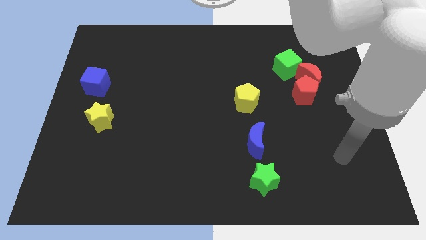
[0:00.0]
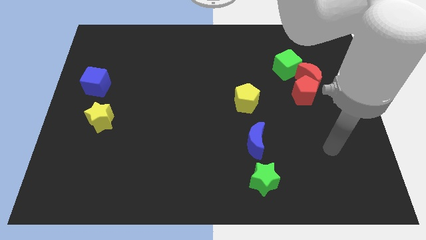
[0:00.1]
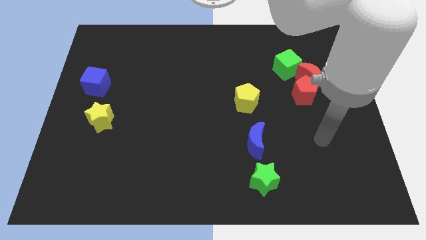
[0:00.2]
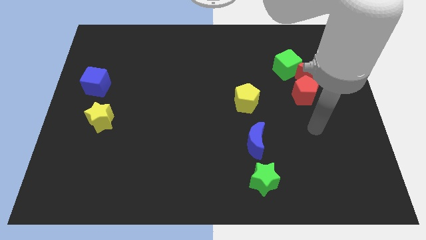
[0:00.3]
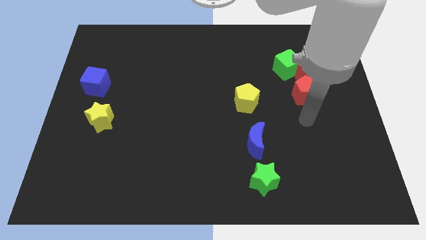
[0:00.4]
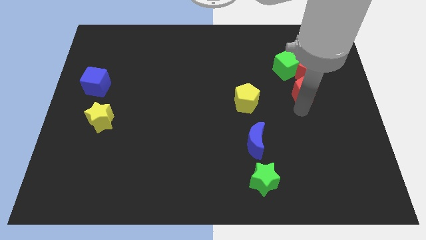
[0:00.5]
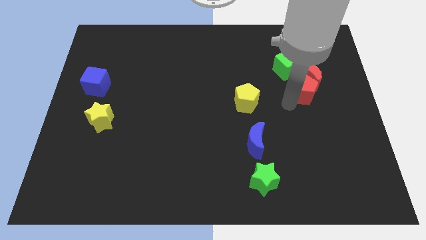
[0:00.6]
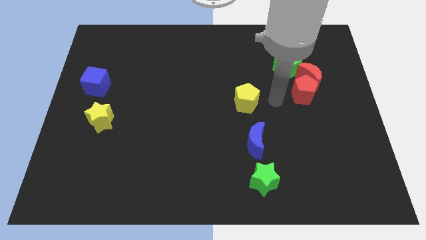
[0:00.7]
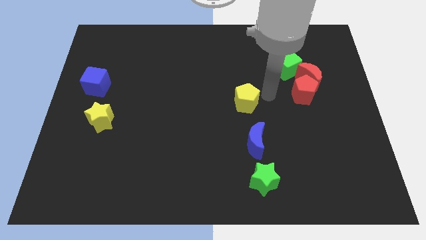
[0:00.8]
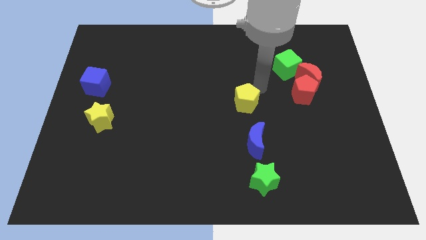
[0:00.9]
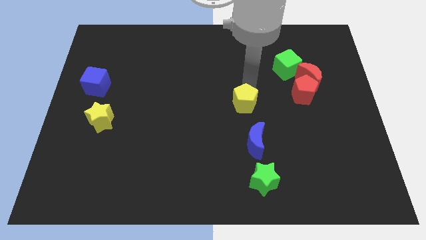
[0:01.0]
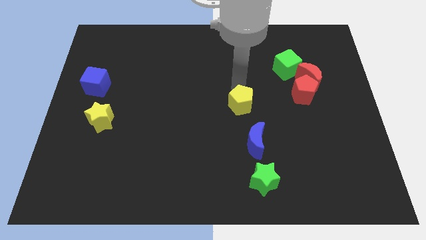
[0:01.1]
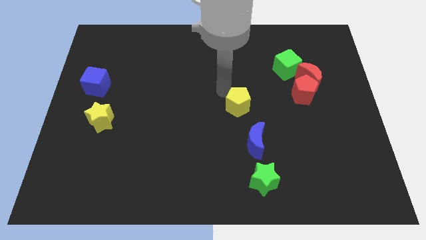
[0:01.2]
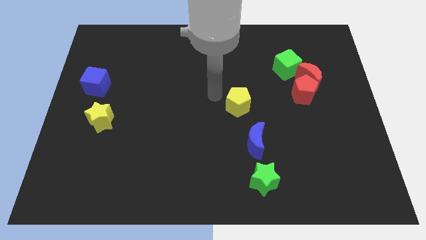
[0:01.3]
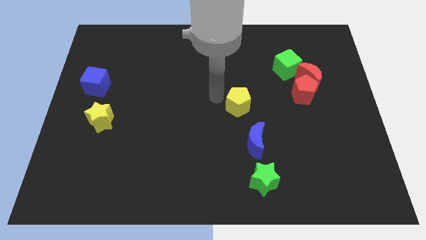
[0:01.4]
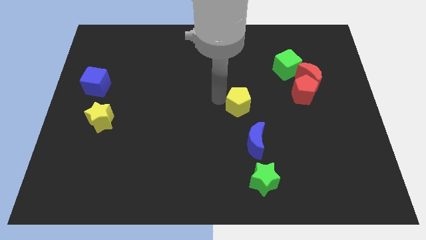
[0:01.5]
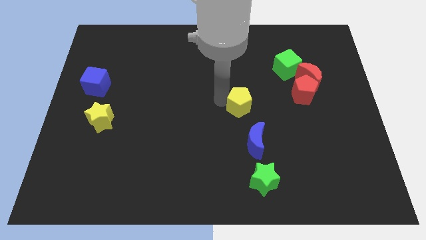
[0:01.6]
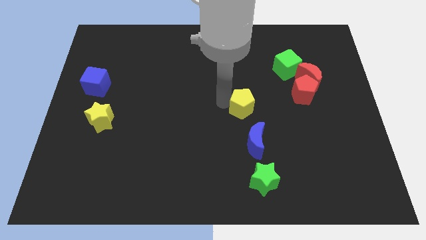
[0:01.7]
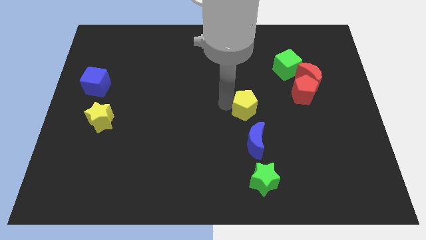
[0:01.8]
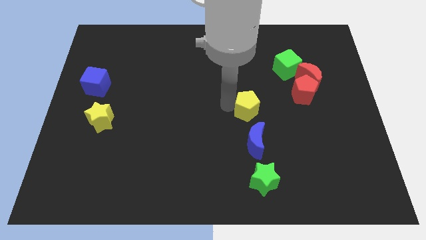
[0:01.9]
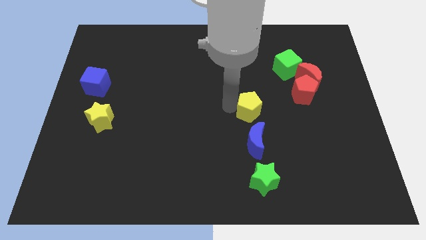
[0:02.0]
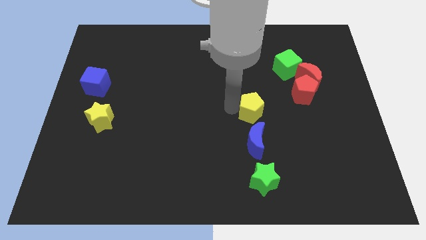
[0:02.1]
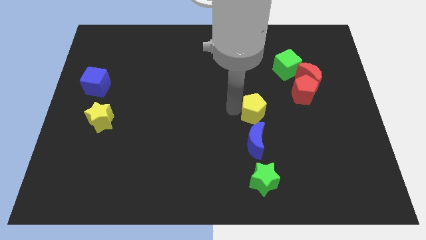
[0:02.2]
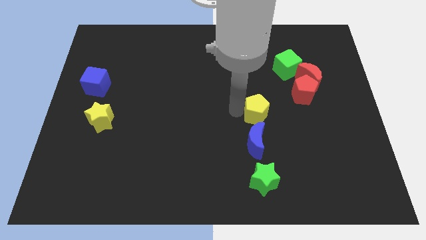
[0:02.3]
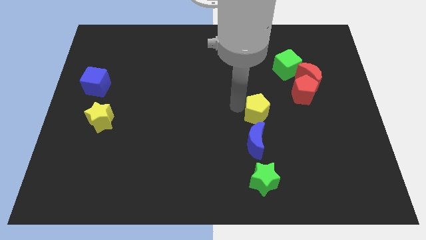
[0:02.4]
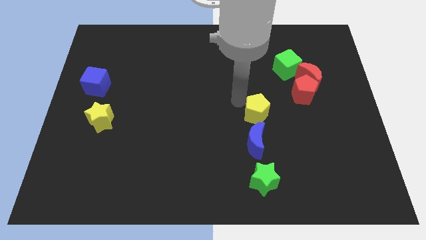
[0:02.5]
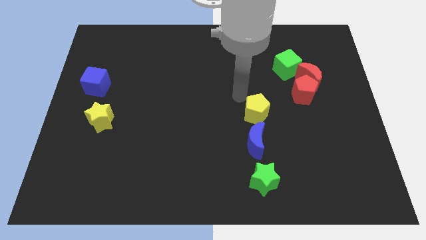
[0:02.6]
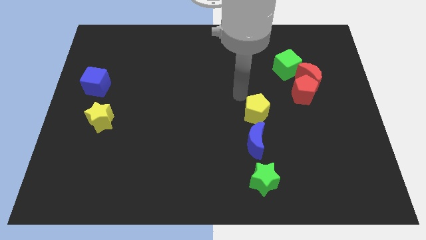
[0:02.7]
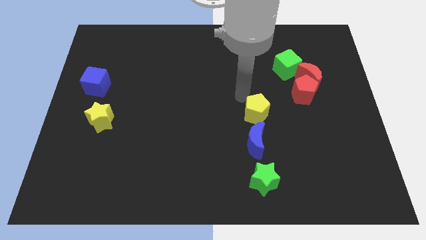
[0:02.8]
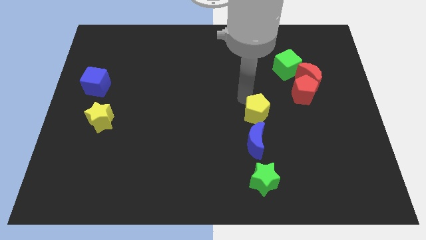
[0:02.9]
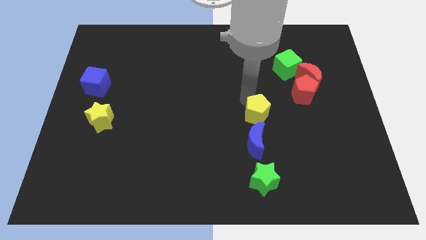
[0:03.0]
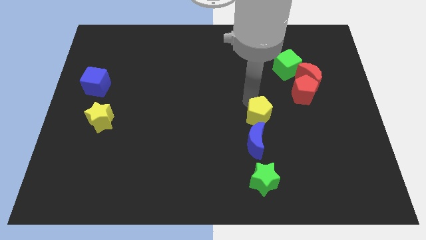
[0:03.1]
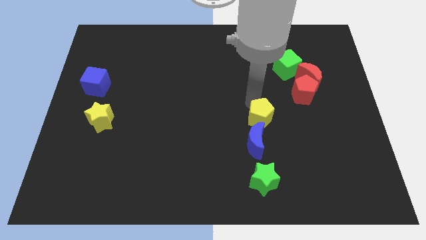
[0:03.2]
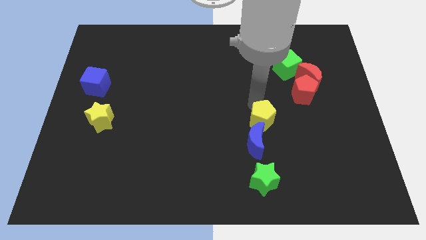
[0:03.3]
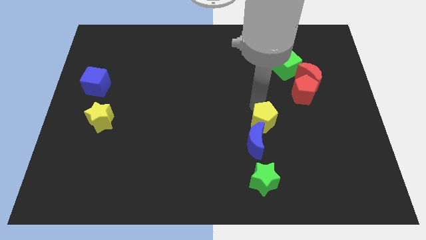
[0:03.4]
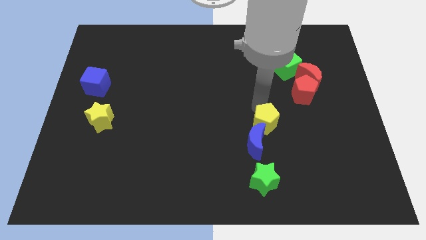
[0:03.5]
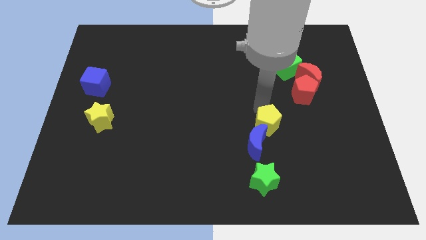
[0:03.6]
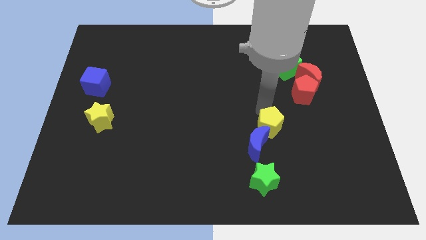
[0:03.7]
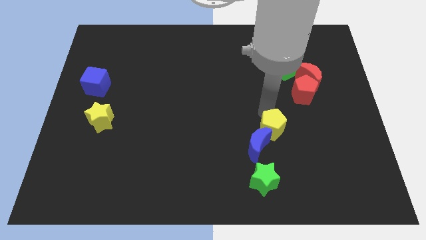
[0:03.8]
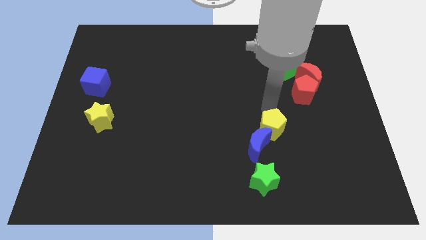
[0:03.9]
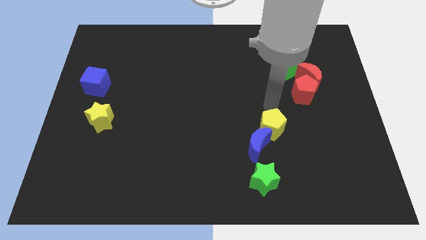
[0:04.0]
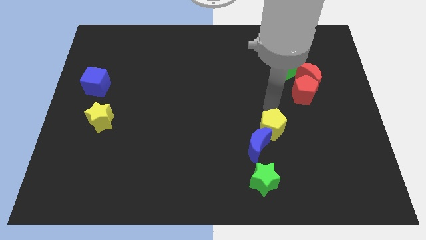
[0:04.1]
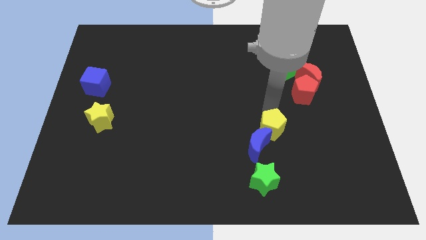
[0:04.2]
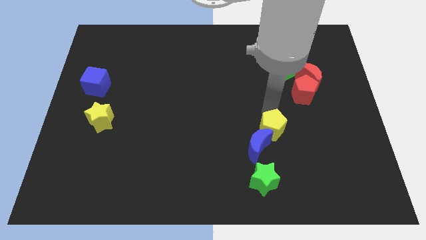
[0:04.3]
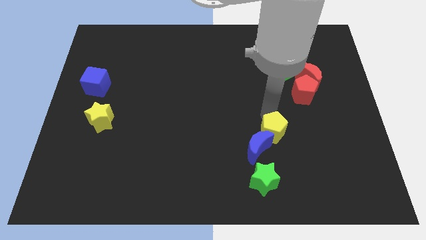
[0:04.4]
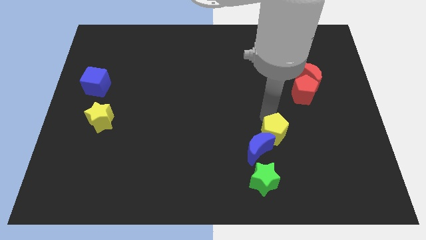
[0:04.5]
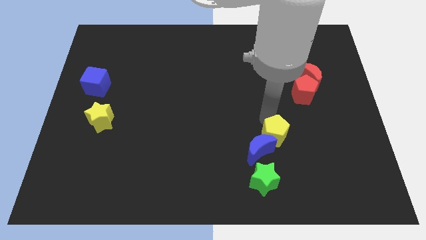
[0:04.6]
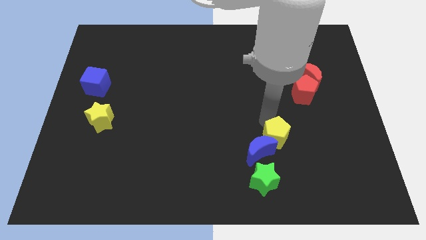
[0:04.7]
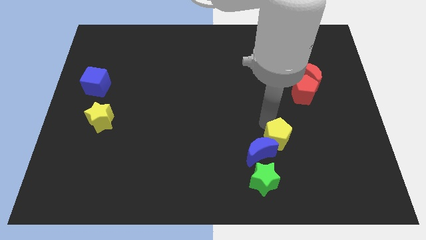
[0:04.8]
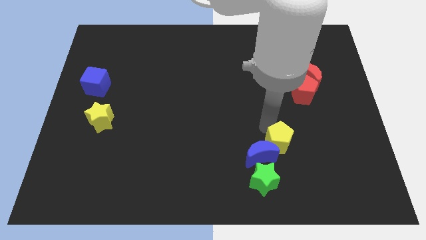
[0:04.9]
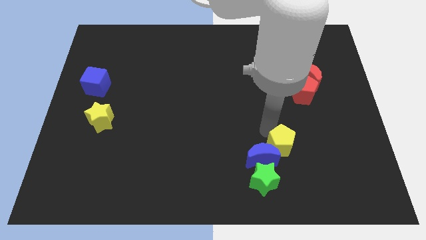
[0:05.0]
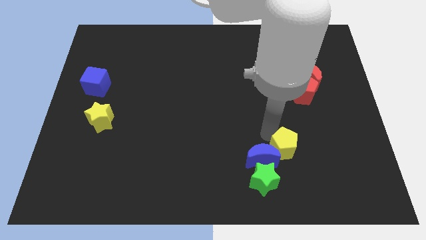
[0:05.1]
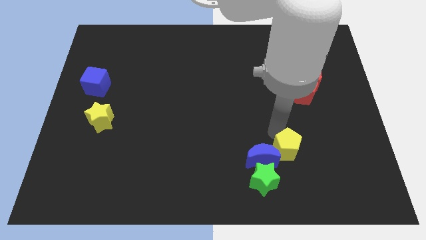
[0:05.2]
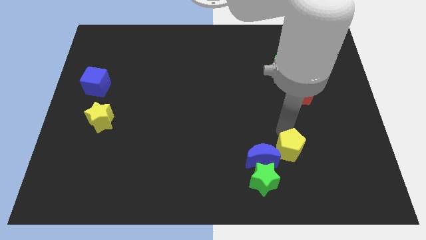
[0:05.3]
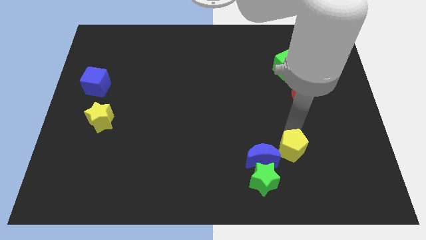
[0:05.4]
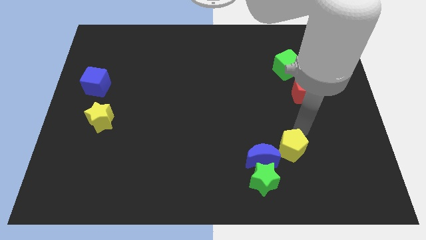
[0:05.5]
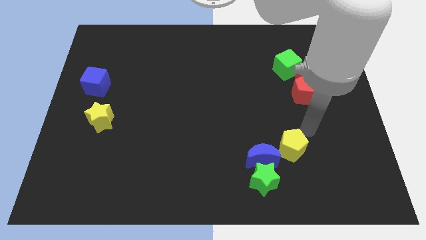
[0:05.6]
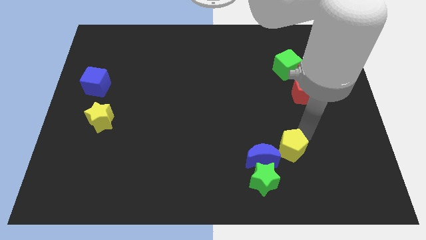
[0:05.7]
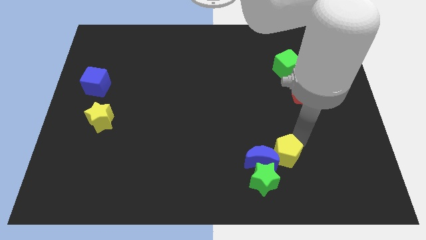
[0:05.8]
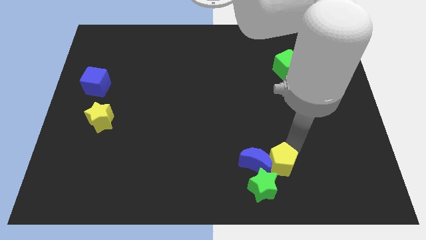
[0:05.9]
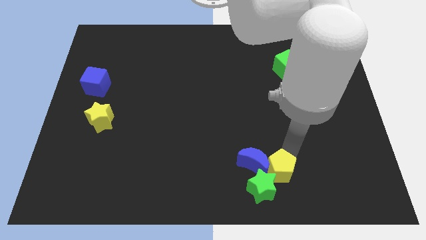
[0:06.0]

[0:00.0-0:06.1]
slide the yellow pentagon next to the green star

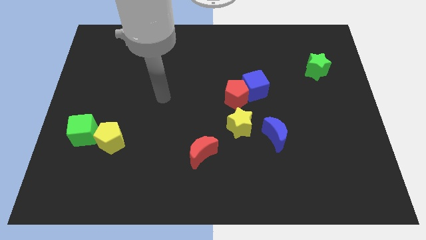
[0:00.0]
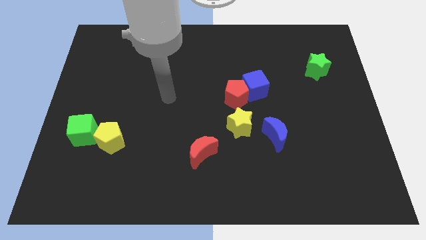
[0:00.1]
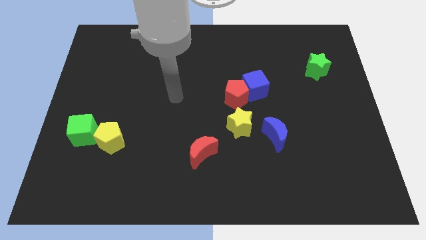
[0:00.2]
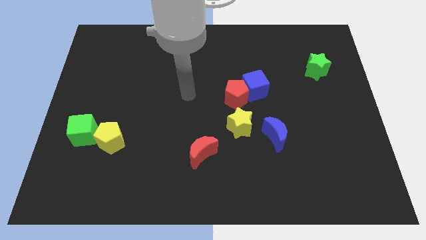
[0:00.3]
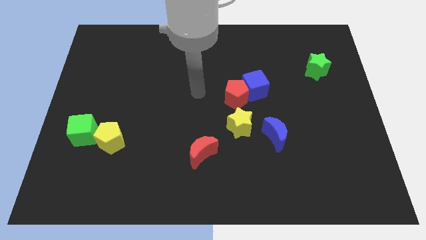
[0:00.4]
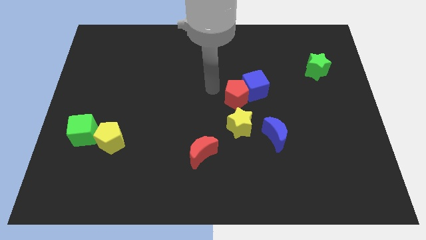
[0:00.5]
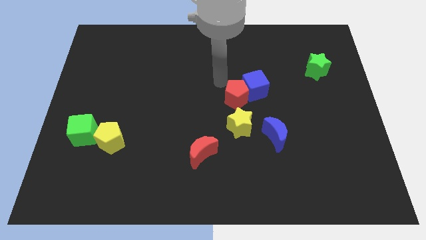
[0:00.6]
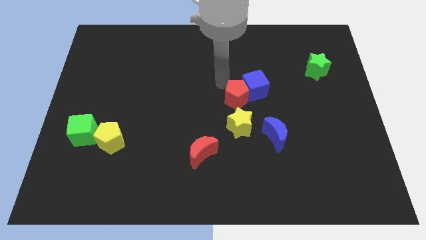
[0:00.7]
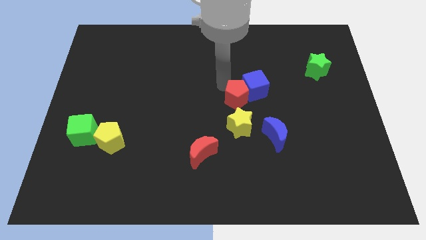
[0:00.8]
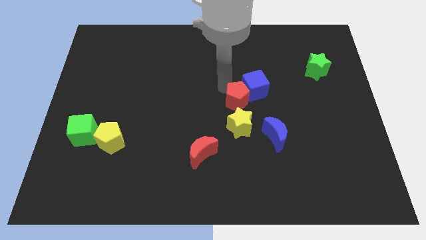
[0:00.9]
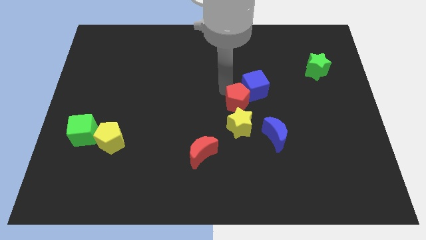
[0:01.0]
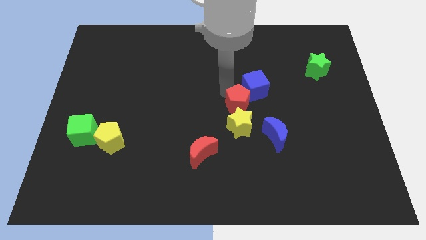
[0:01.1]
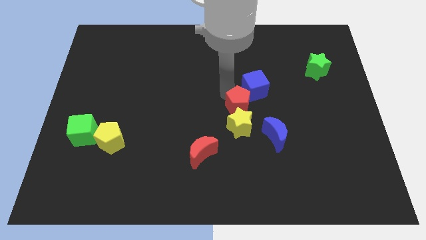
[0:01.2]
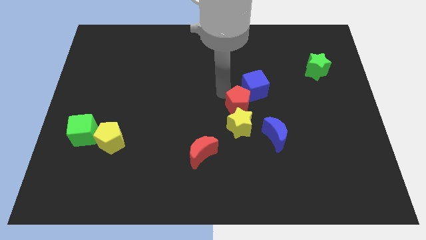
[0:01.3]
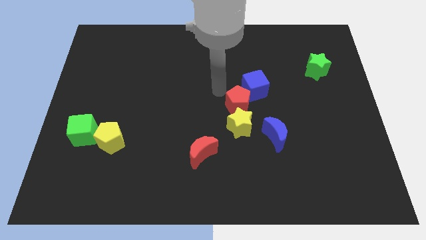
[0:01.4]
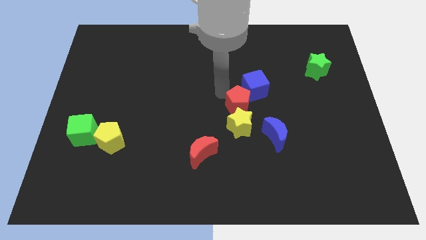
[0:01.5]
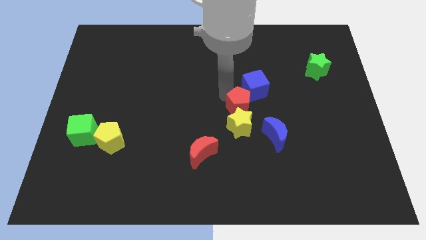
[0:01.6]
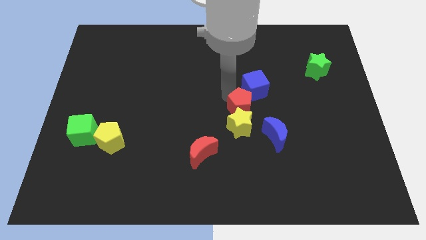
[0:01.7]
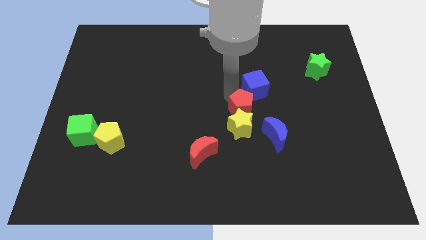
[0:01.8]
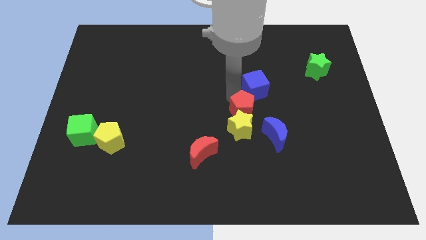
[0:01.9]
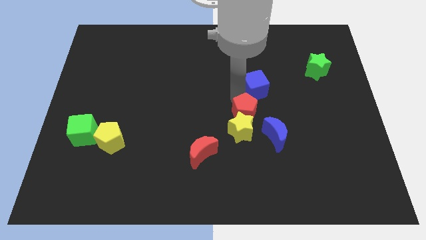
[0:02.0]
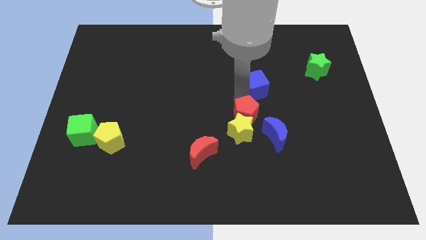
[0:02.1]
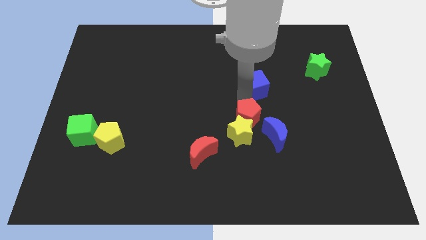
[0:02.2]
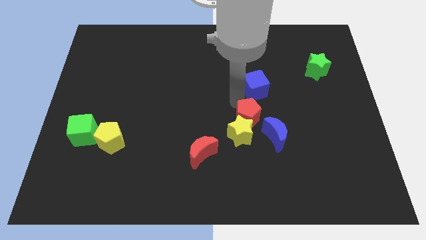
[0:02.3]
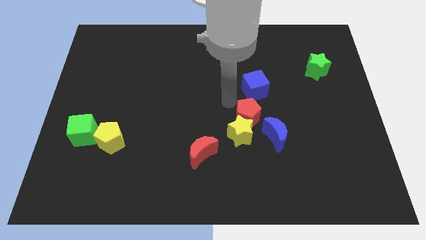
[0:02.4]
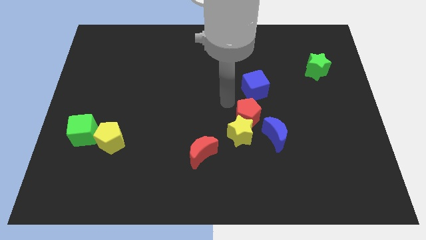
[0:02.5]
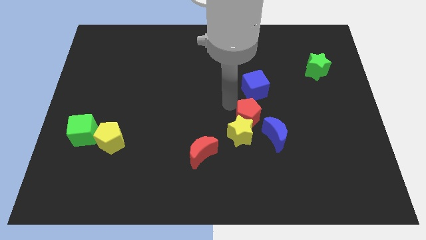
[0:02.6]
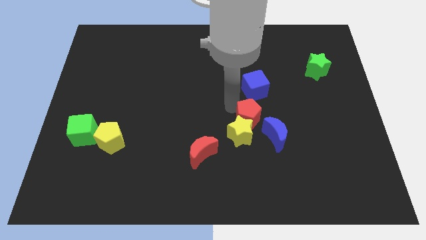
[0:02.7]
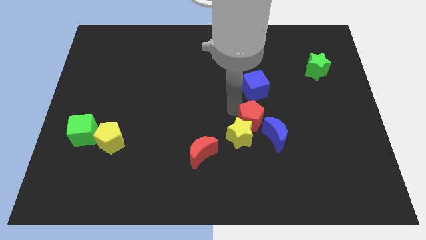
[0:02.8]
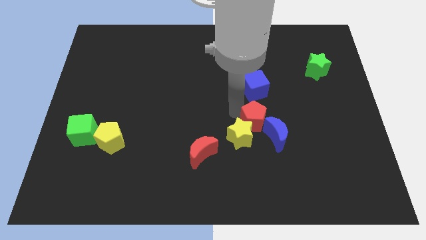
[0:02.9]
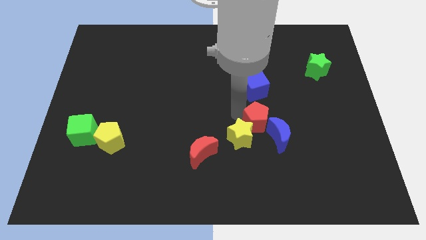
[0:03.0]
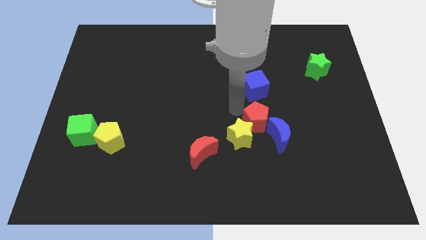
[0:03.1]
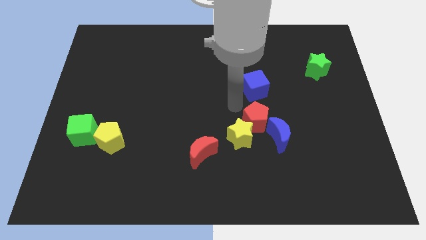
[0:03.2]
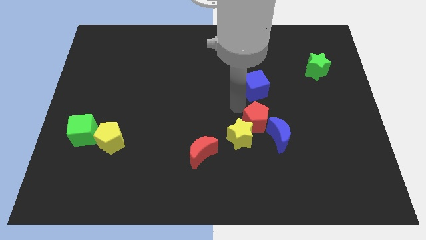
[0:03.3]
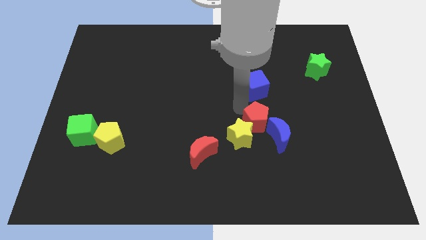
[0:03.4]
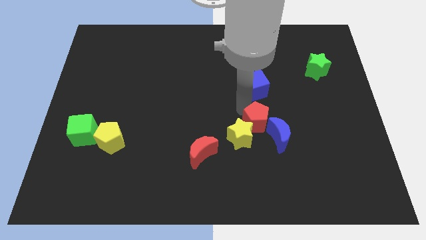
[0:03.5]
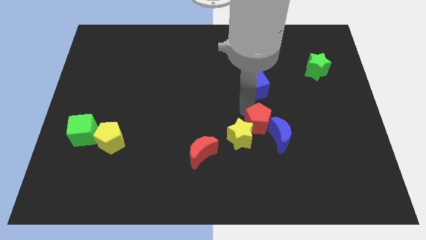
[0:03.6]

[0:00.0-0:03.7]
push the red pentagon to the blue moon
